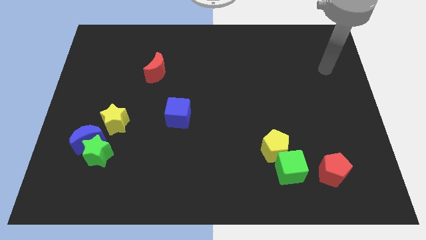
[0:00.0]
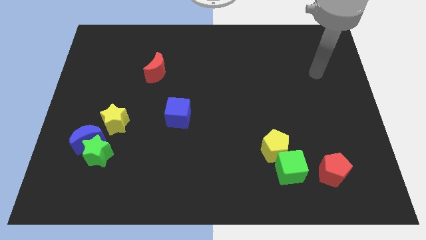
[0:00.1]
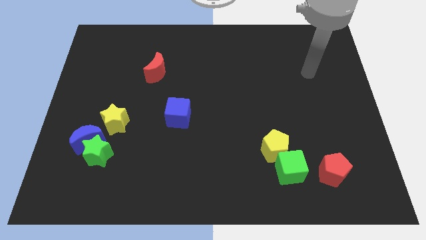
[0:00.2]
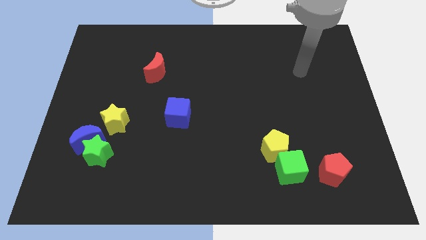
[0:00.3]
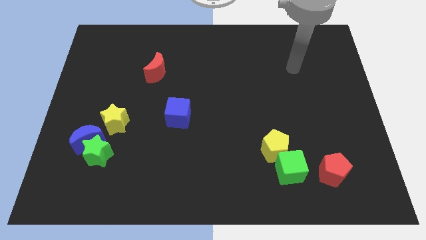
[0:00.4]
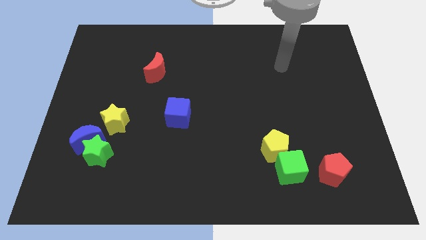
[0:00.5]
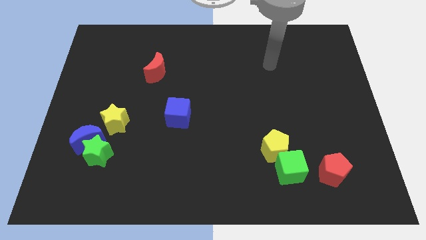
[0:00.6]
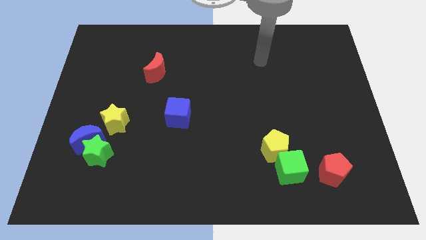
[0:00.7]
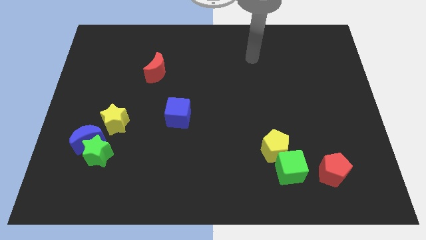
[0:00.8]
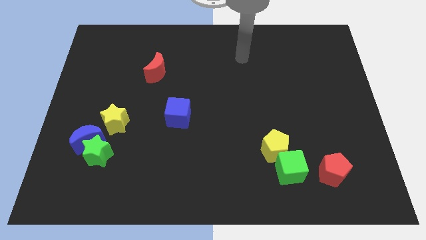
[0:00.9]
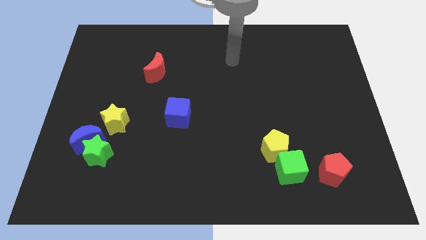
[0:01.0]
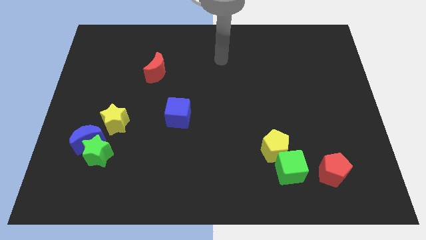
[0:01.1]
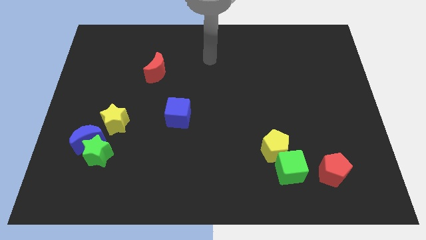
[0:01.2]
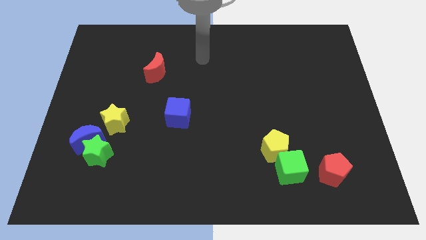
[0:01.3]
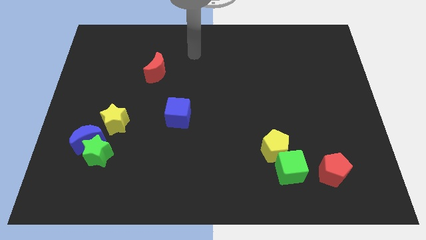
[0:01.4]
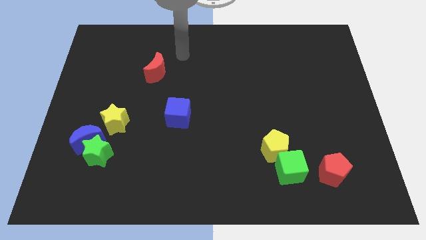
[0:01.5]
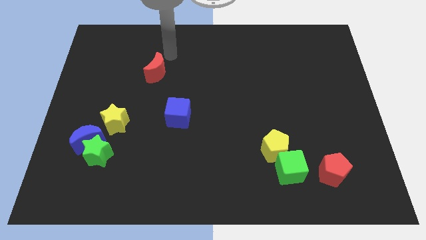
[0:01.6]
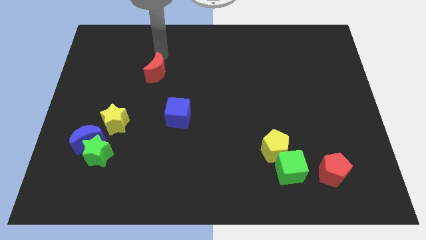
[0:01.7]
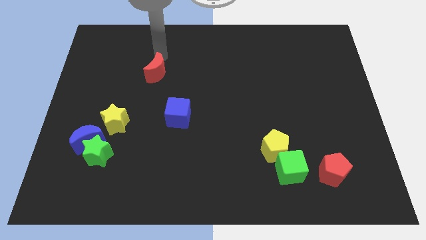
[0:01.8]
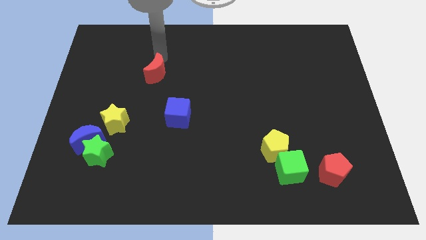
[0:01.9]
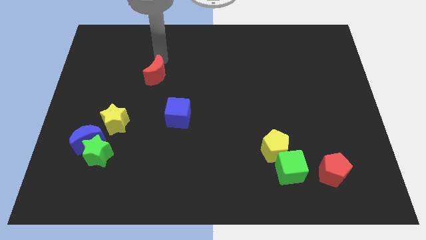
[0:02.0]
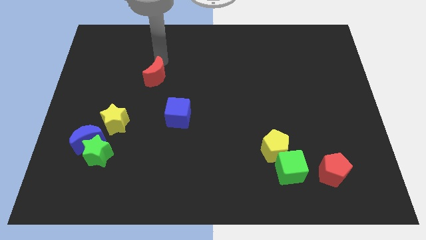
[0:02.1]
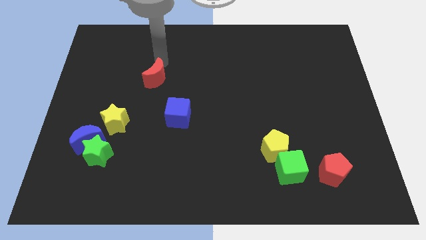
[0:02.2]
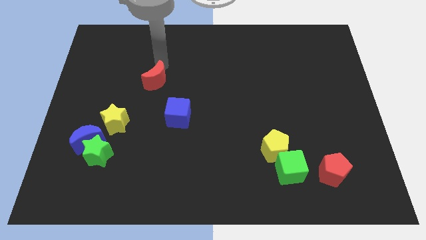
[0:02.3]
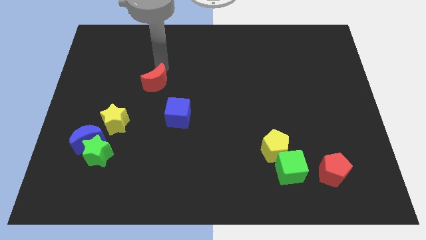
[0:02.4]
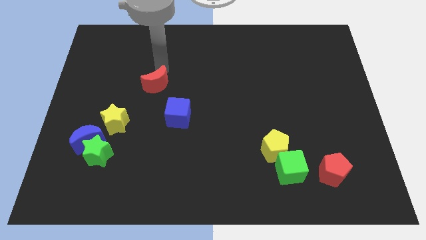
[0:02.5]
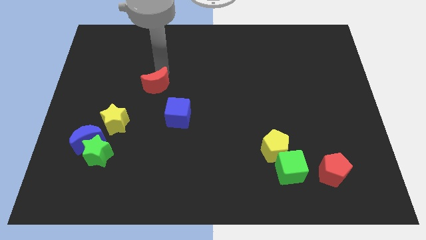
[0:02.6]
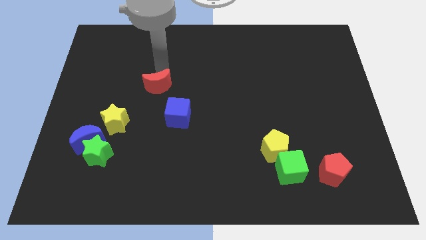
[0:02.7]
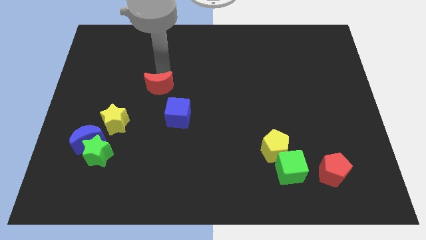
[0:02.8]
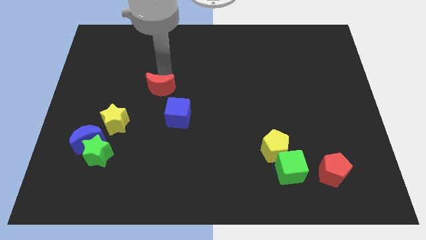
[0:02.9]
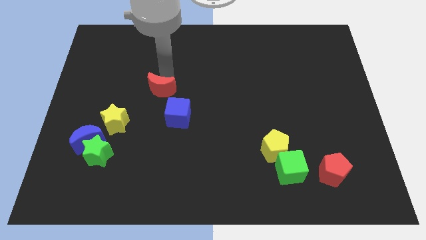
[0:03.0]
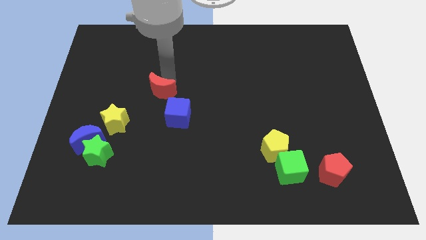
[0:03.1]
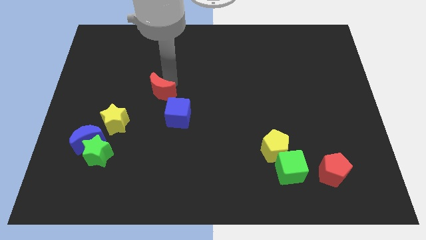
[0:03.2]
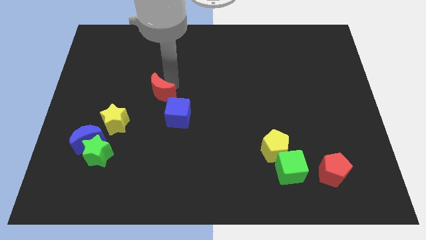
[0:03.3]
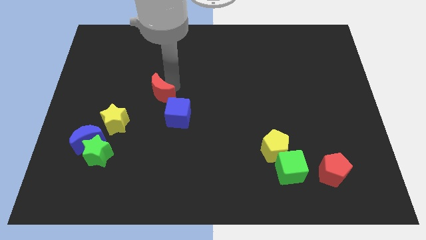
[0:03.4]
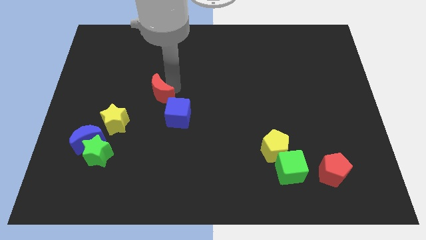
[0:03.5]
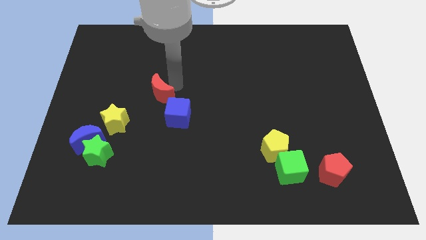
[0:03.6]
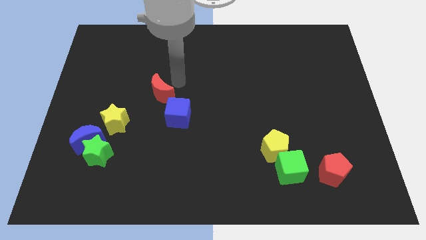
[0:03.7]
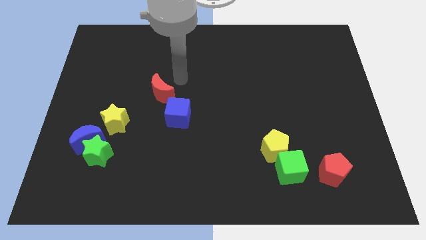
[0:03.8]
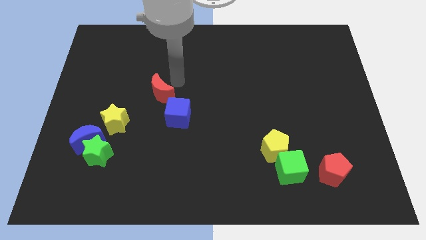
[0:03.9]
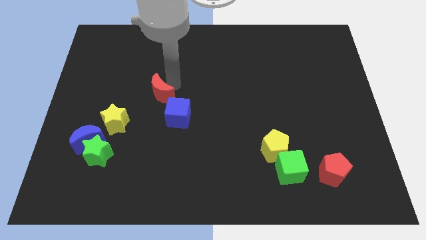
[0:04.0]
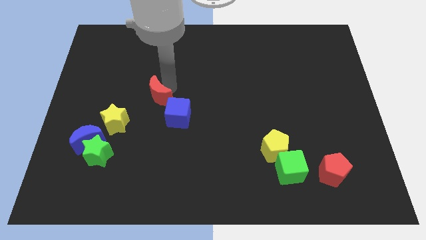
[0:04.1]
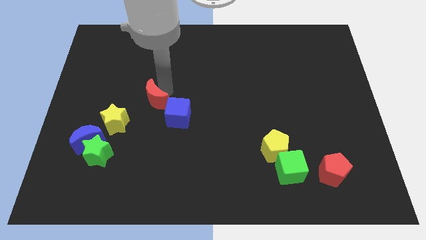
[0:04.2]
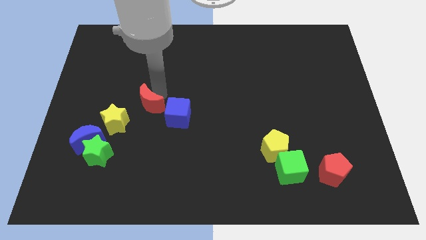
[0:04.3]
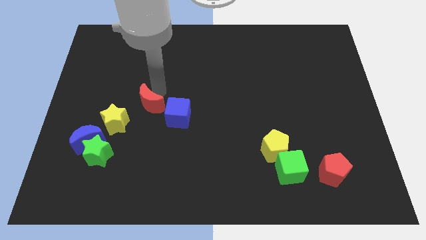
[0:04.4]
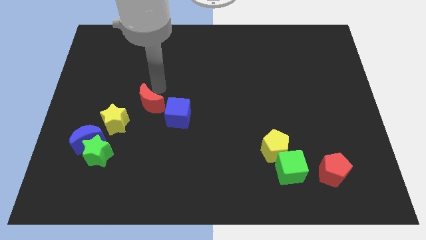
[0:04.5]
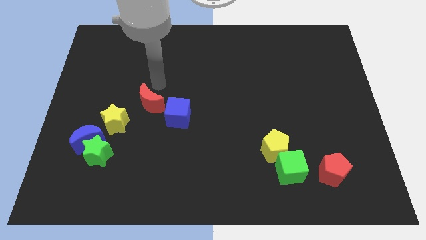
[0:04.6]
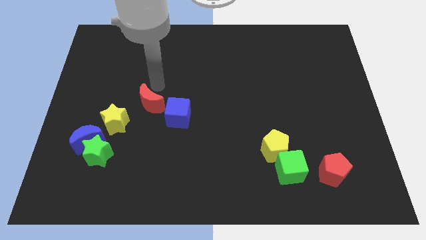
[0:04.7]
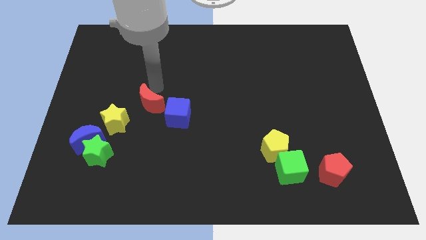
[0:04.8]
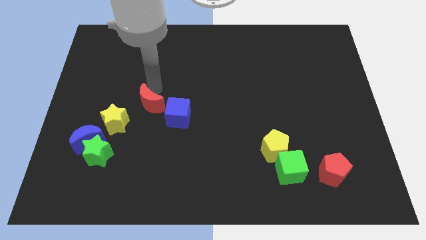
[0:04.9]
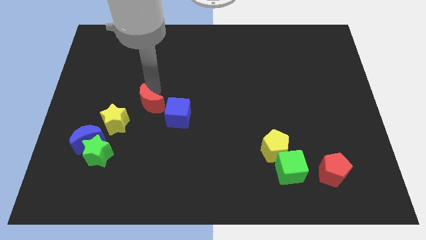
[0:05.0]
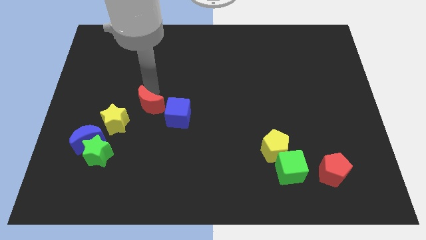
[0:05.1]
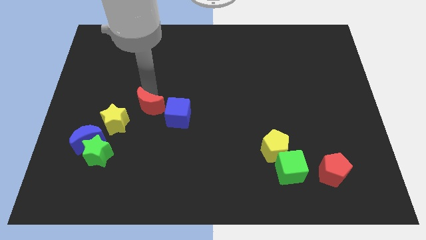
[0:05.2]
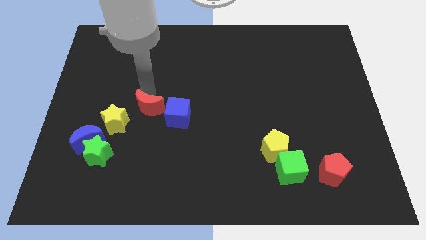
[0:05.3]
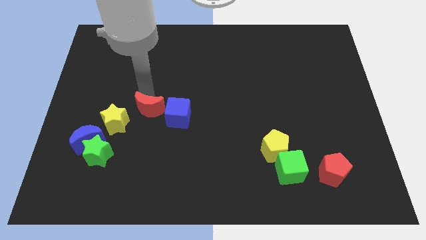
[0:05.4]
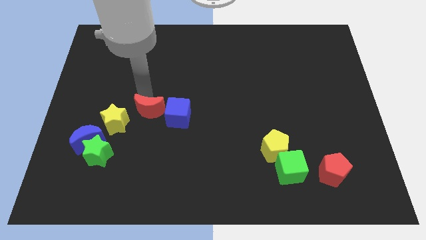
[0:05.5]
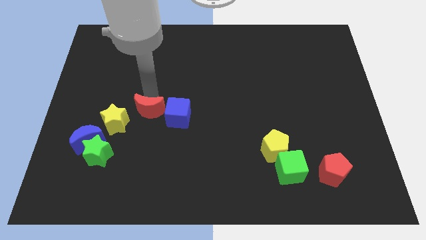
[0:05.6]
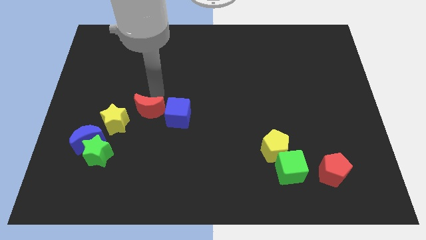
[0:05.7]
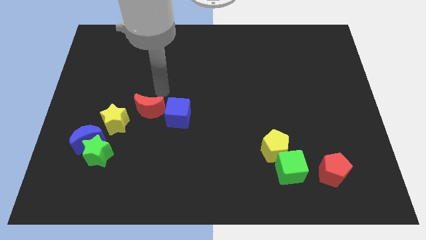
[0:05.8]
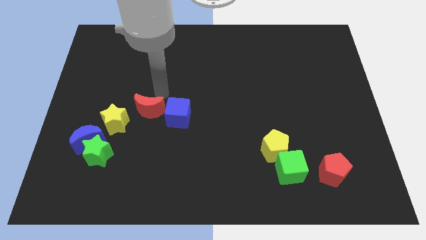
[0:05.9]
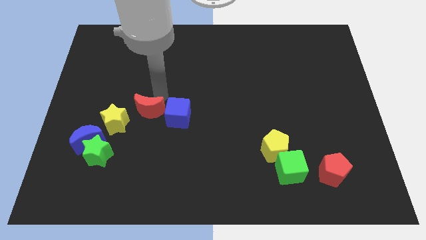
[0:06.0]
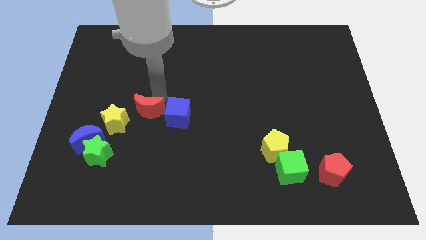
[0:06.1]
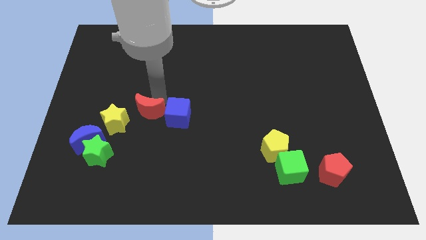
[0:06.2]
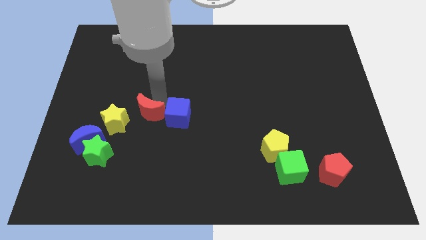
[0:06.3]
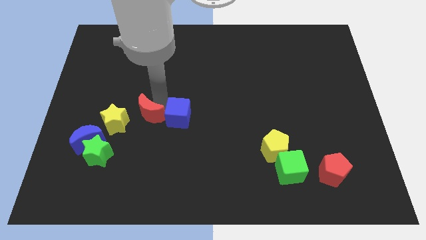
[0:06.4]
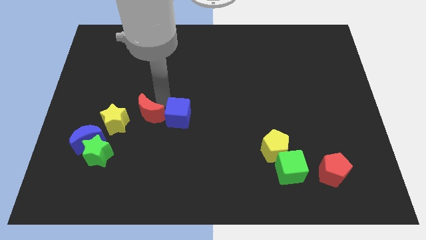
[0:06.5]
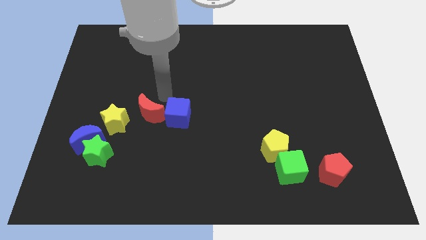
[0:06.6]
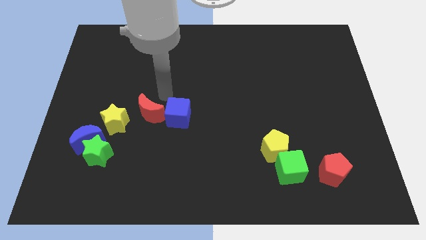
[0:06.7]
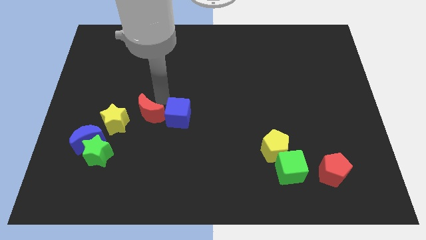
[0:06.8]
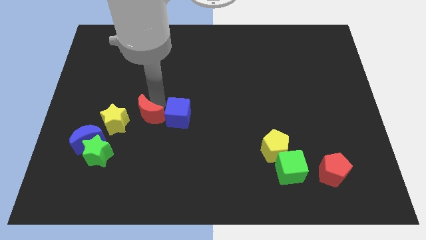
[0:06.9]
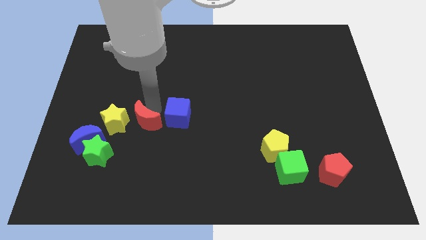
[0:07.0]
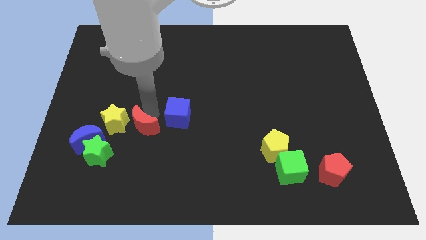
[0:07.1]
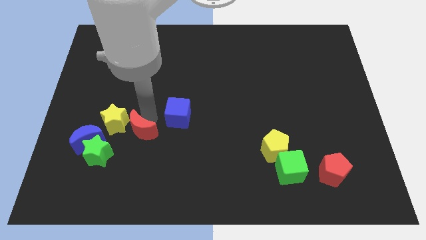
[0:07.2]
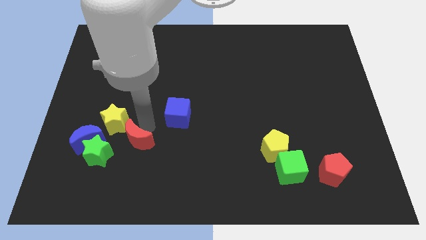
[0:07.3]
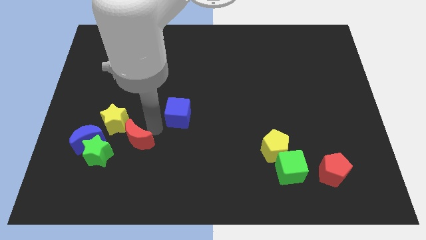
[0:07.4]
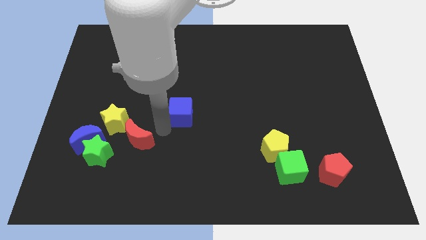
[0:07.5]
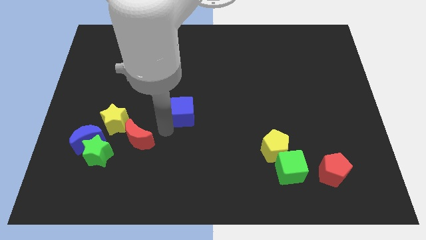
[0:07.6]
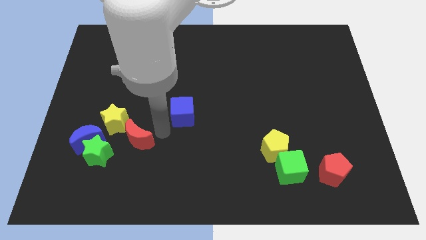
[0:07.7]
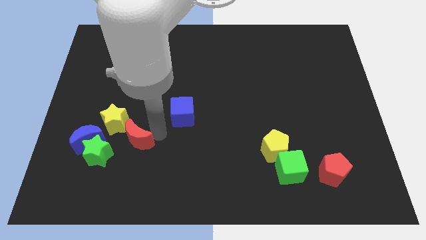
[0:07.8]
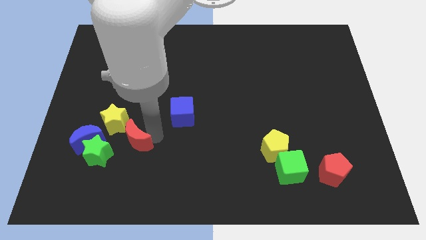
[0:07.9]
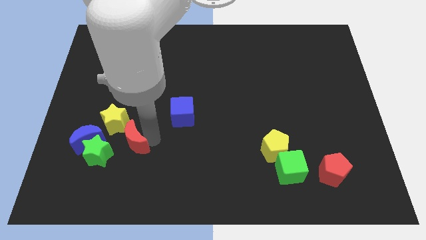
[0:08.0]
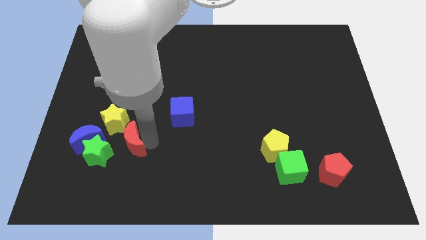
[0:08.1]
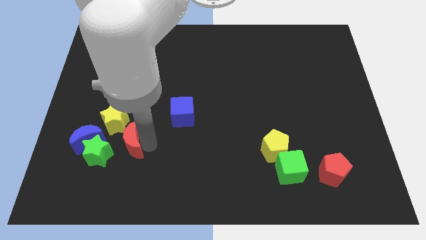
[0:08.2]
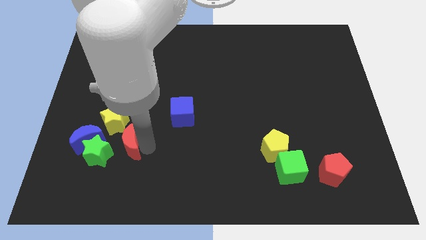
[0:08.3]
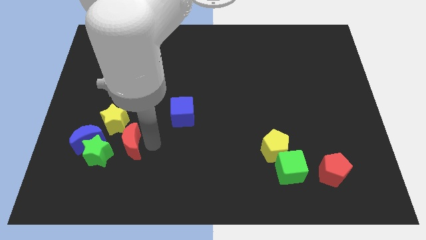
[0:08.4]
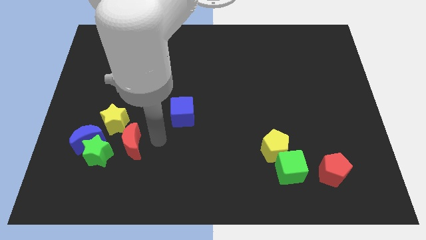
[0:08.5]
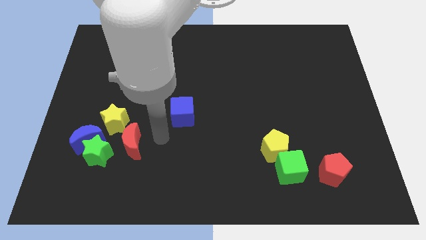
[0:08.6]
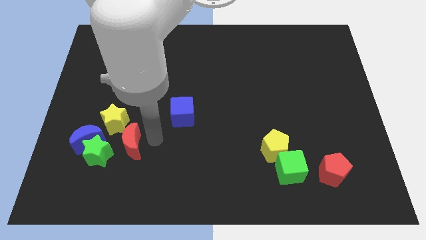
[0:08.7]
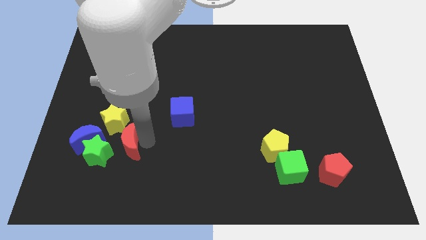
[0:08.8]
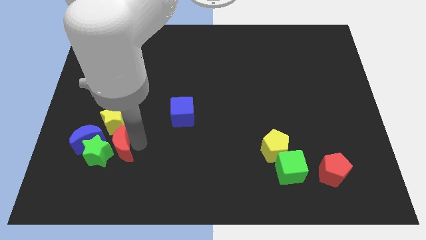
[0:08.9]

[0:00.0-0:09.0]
slide the red moon towards the green star
